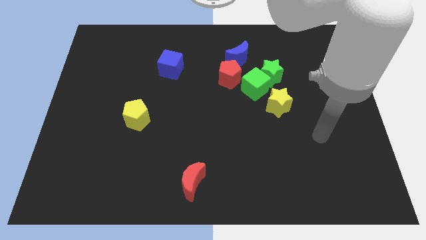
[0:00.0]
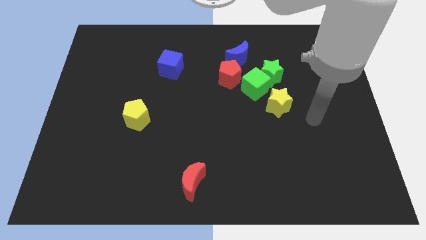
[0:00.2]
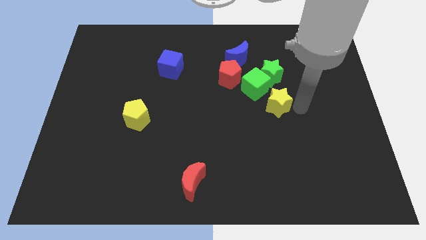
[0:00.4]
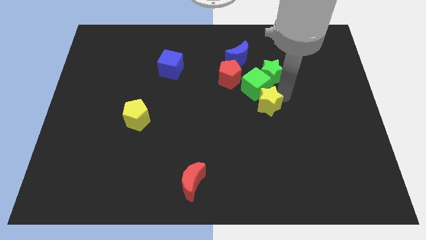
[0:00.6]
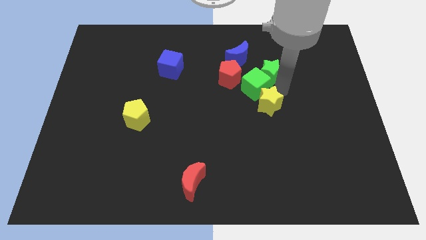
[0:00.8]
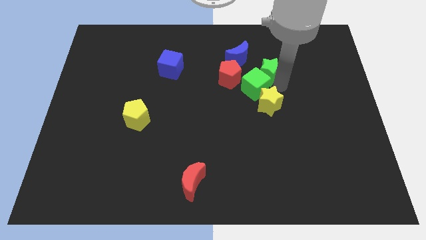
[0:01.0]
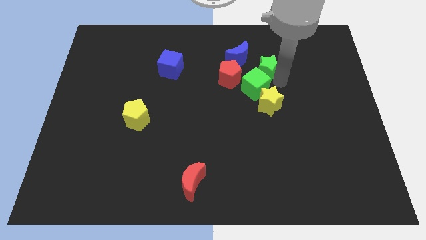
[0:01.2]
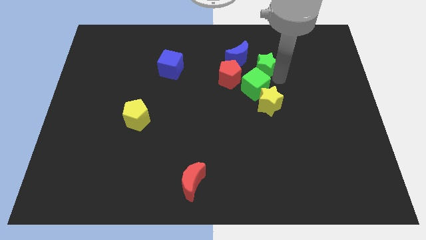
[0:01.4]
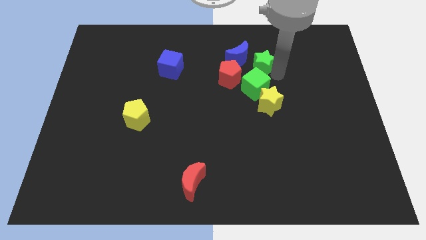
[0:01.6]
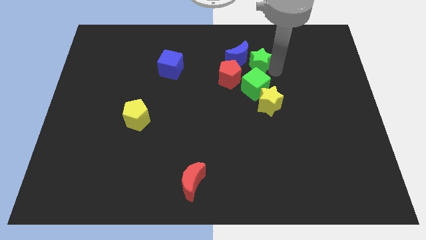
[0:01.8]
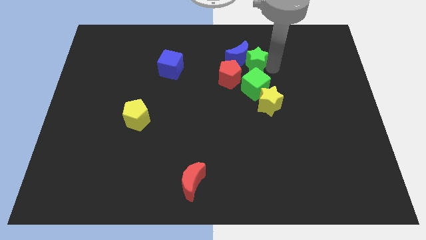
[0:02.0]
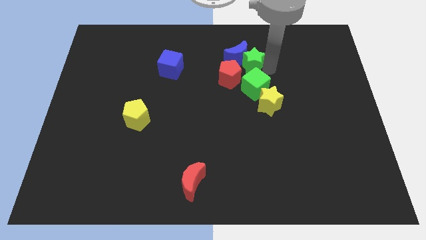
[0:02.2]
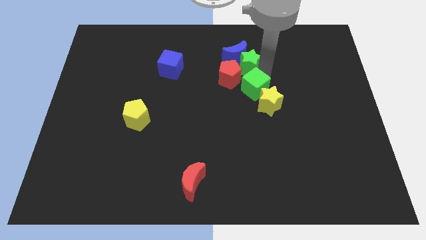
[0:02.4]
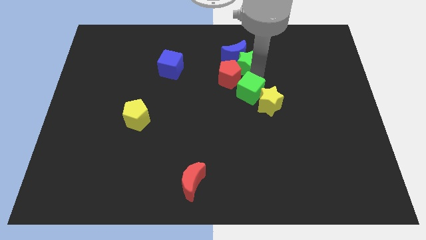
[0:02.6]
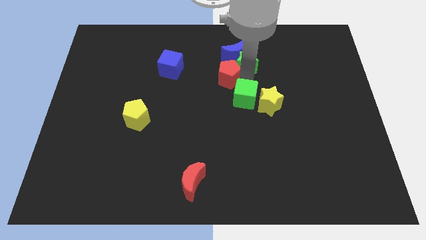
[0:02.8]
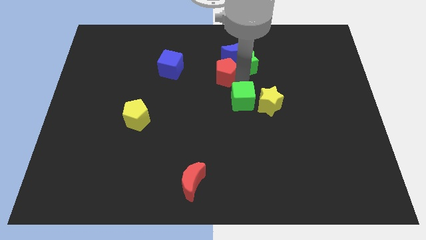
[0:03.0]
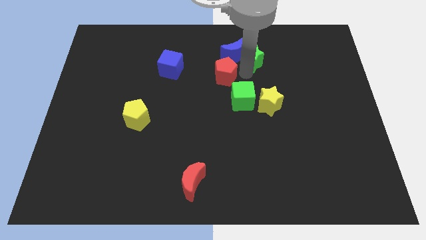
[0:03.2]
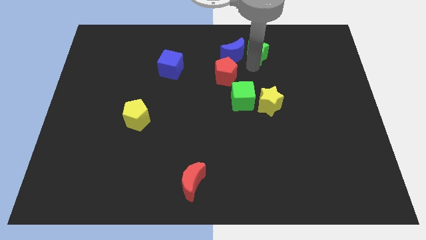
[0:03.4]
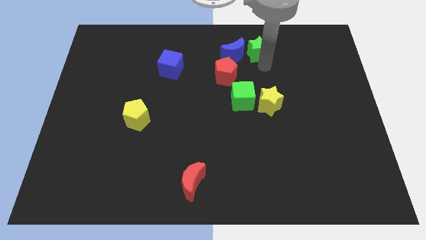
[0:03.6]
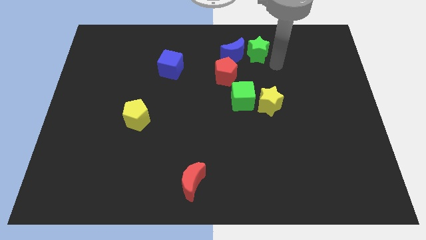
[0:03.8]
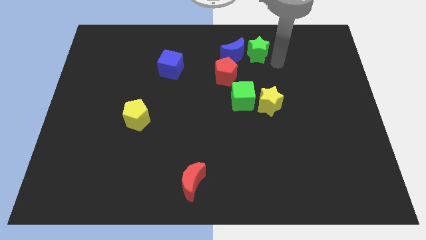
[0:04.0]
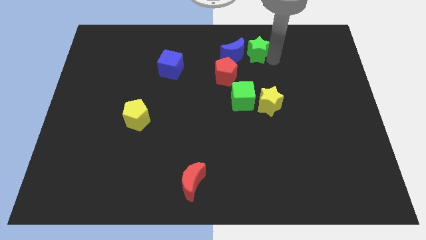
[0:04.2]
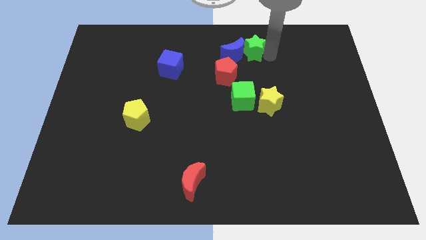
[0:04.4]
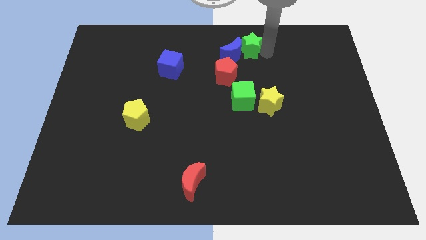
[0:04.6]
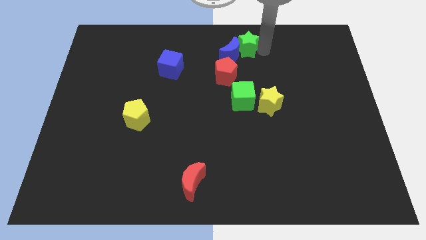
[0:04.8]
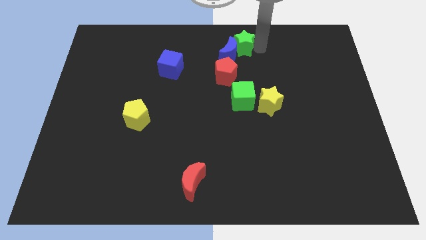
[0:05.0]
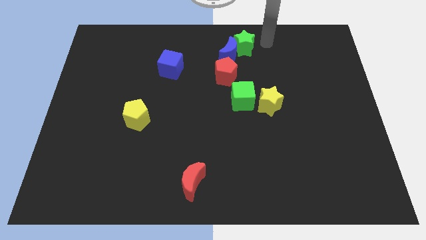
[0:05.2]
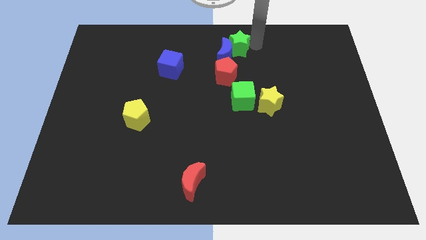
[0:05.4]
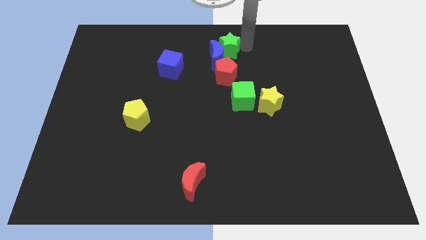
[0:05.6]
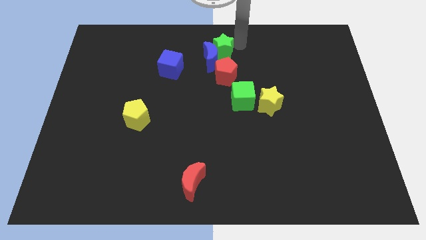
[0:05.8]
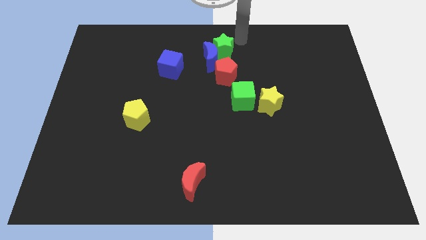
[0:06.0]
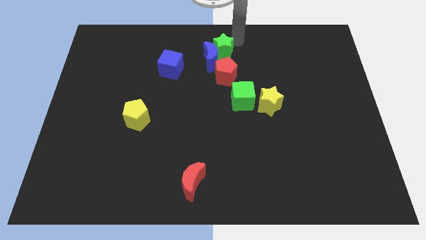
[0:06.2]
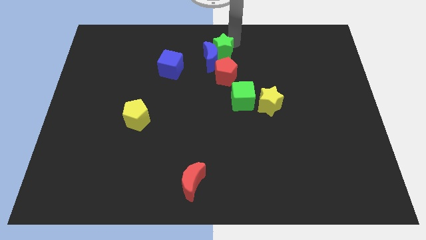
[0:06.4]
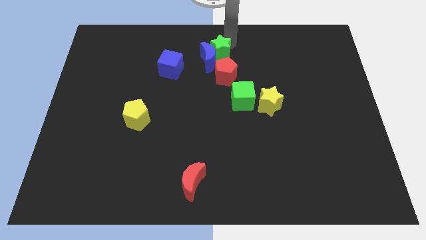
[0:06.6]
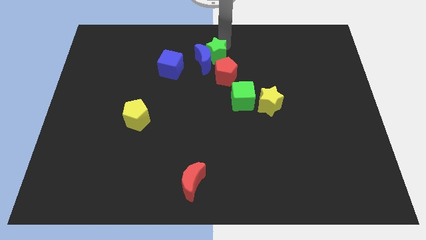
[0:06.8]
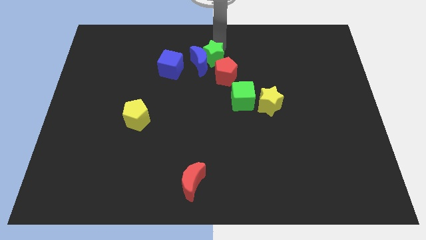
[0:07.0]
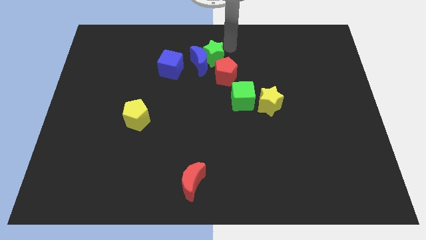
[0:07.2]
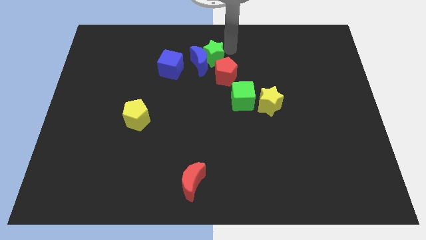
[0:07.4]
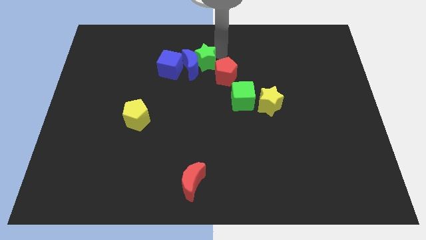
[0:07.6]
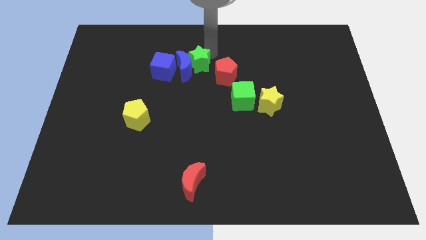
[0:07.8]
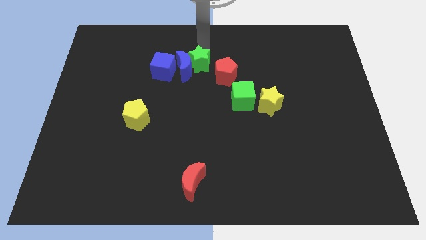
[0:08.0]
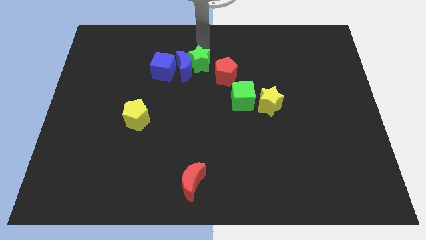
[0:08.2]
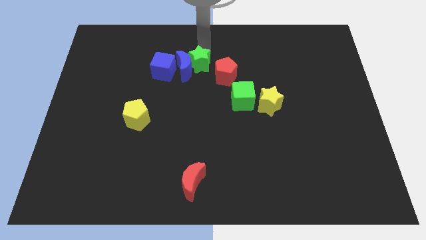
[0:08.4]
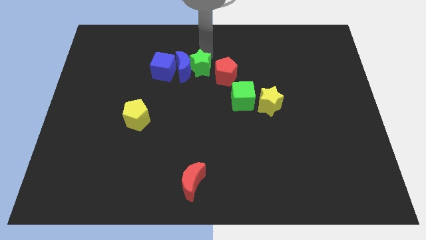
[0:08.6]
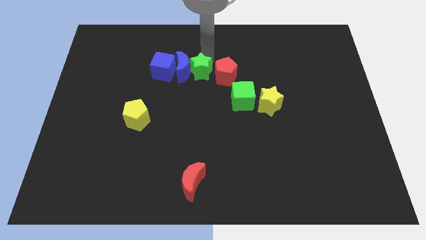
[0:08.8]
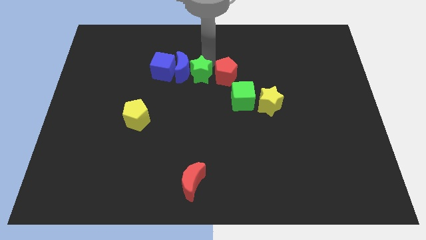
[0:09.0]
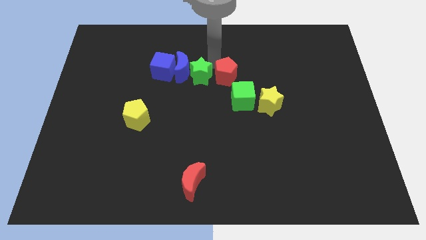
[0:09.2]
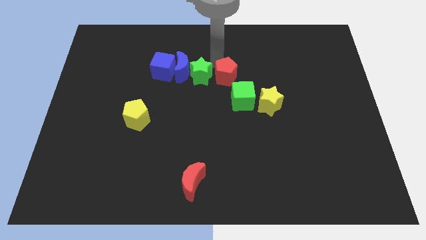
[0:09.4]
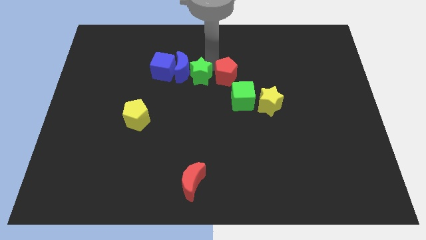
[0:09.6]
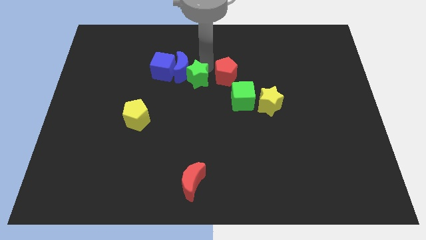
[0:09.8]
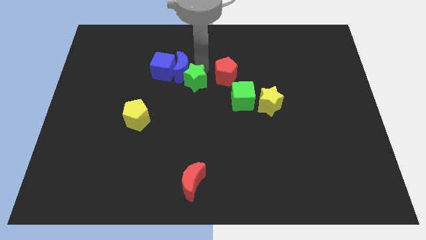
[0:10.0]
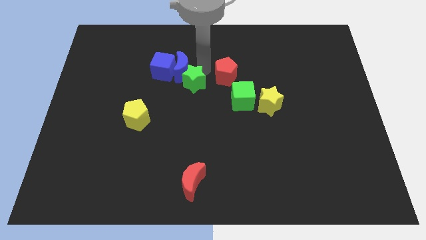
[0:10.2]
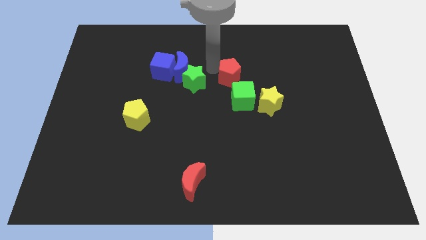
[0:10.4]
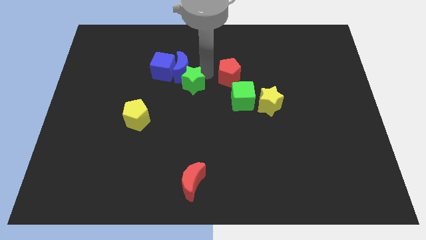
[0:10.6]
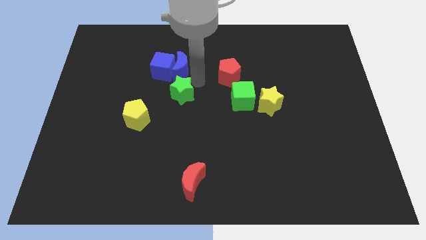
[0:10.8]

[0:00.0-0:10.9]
push the green star diagonally up and to the right of the yellow pentagon

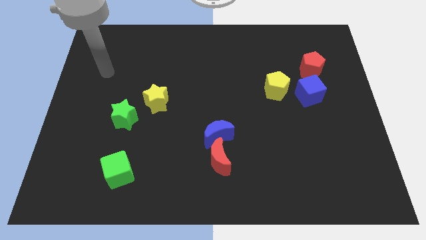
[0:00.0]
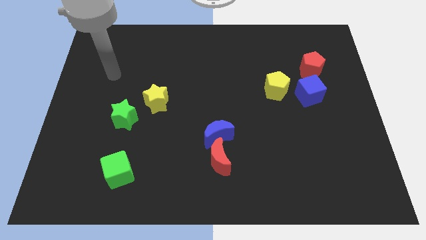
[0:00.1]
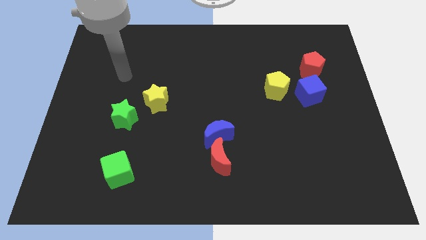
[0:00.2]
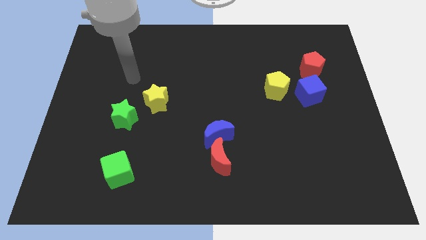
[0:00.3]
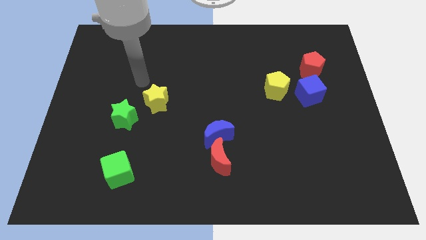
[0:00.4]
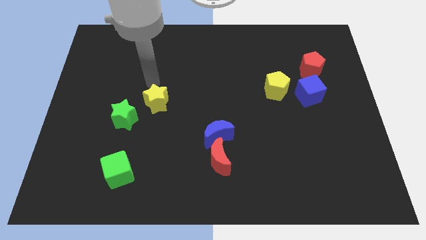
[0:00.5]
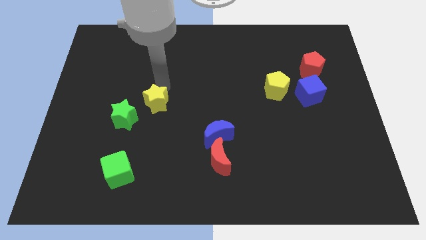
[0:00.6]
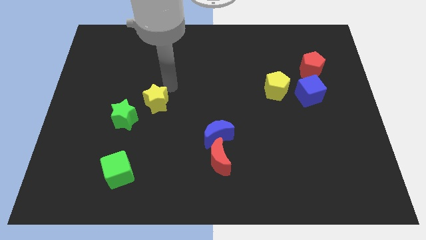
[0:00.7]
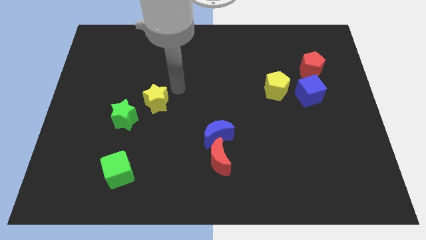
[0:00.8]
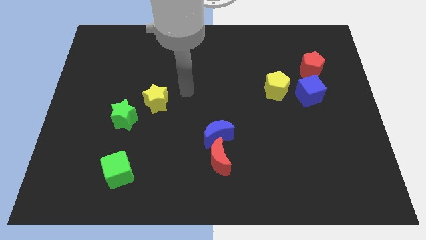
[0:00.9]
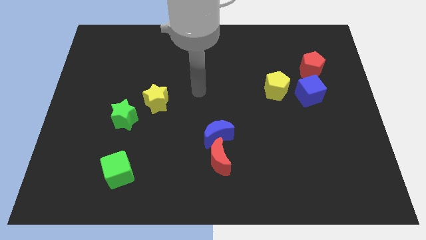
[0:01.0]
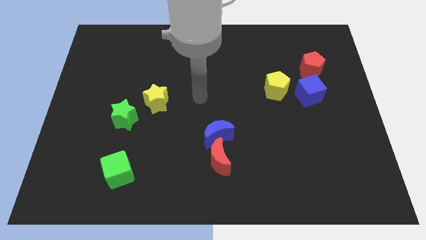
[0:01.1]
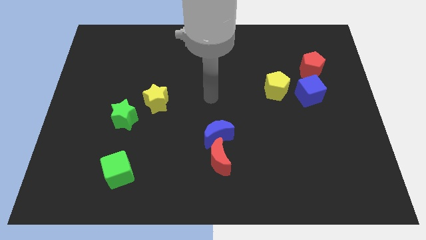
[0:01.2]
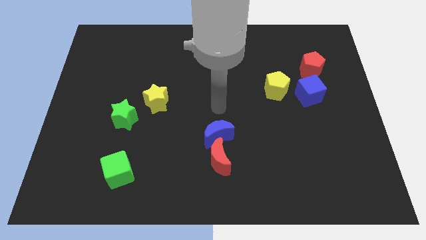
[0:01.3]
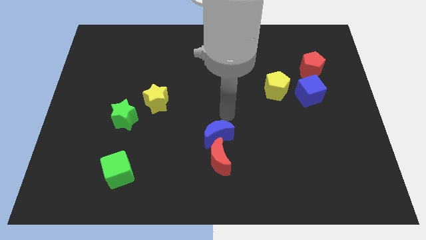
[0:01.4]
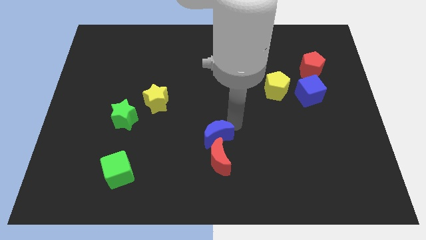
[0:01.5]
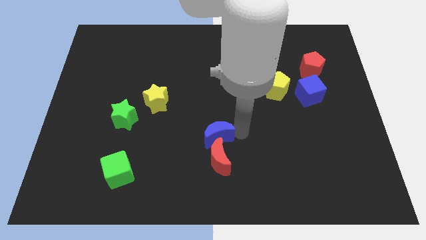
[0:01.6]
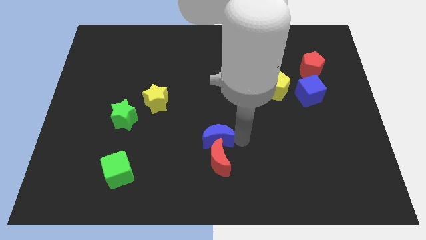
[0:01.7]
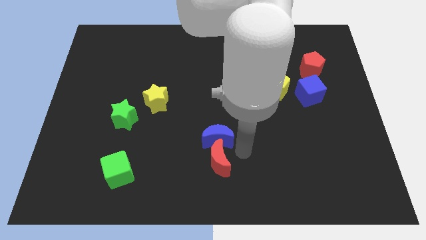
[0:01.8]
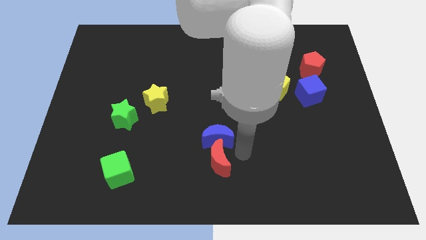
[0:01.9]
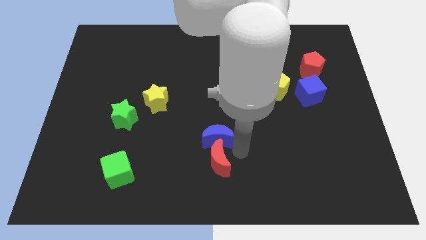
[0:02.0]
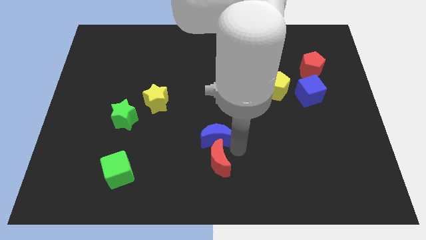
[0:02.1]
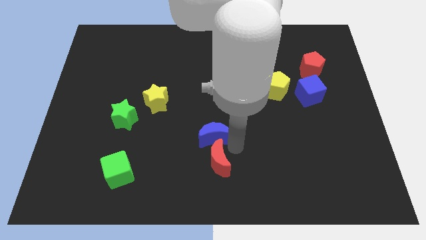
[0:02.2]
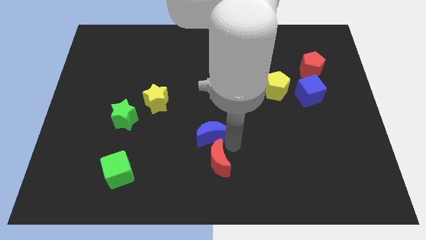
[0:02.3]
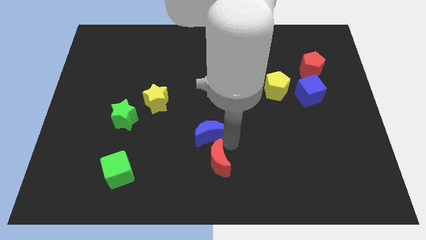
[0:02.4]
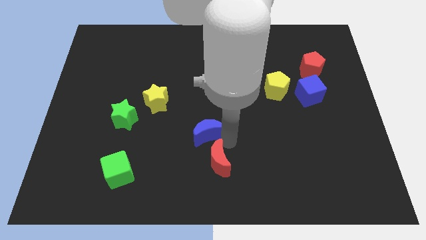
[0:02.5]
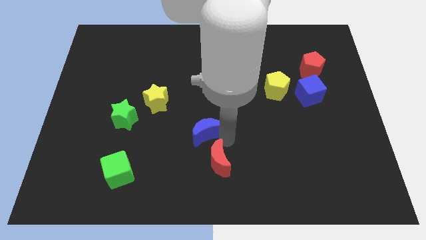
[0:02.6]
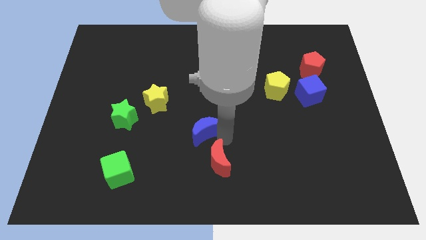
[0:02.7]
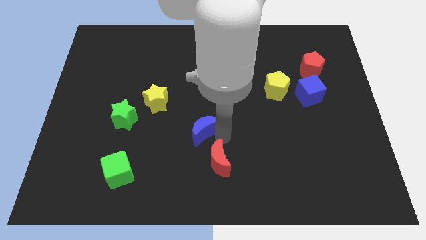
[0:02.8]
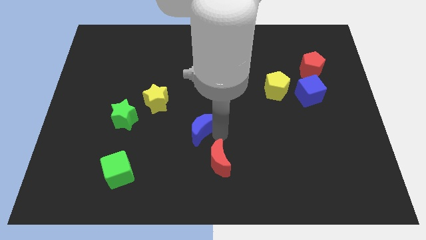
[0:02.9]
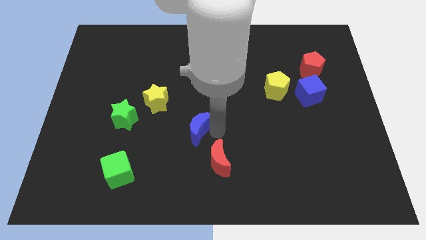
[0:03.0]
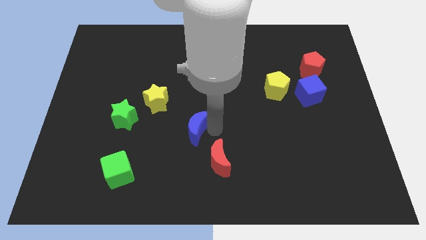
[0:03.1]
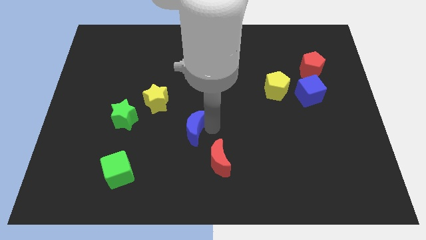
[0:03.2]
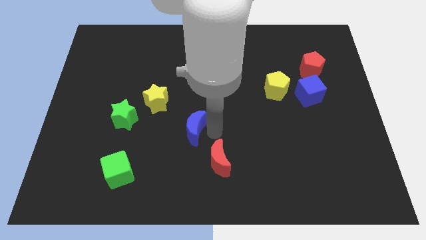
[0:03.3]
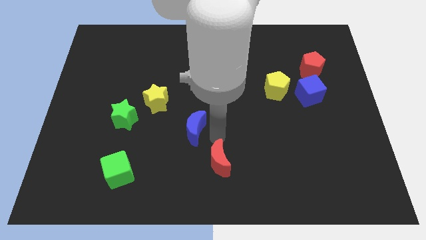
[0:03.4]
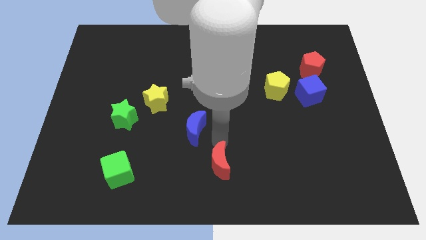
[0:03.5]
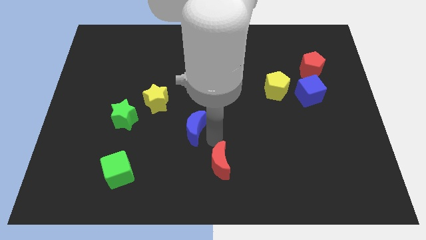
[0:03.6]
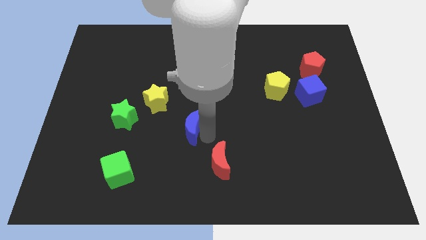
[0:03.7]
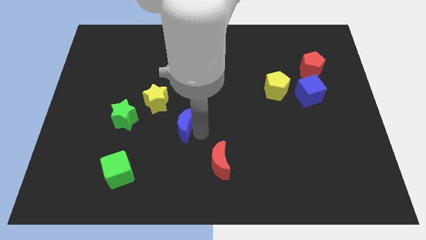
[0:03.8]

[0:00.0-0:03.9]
slide the blue moon to the right side of the green star
